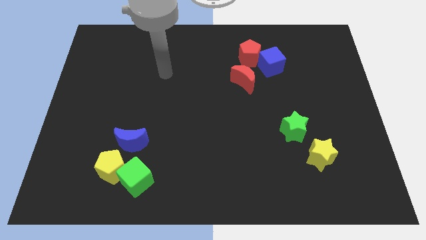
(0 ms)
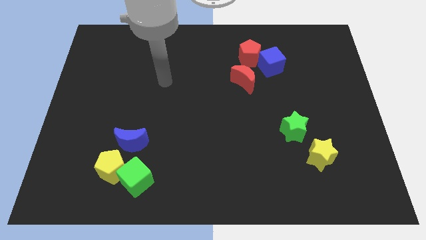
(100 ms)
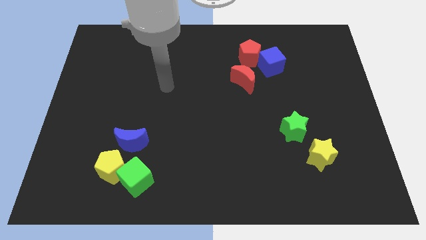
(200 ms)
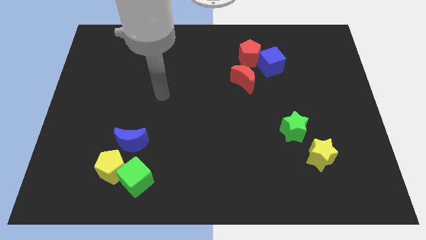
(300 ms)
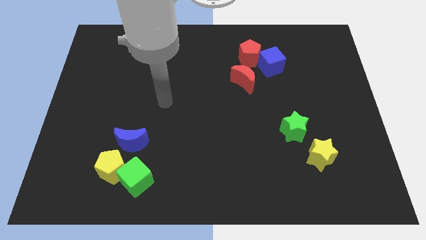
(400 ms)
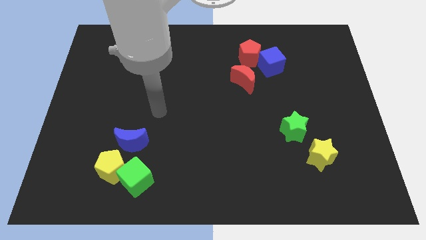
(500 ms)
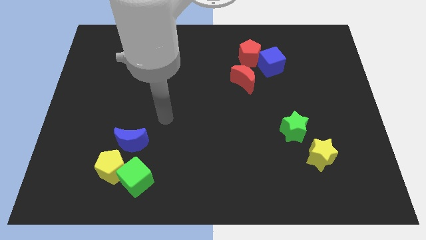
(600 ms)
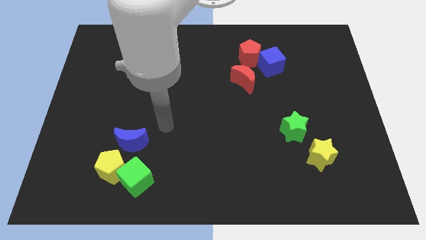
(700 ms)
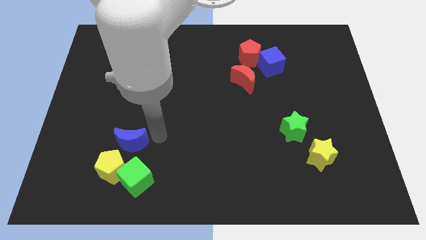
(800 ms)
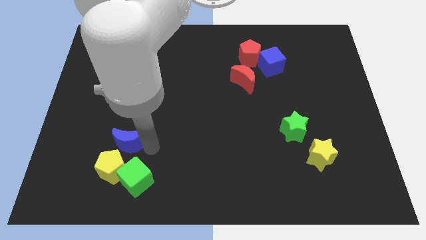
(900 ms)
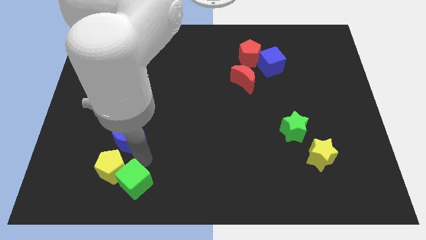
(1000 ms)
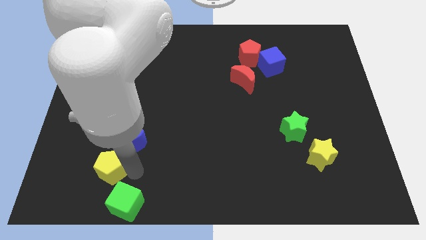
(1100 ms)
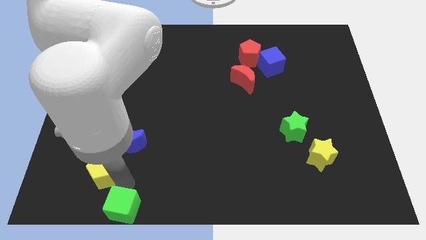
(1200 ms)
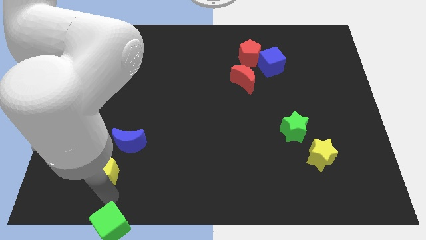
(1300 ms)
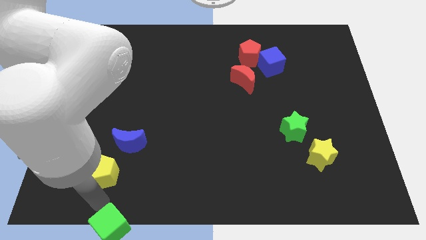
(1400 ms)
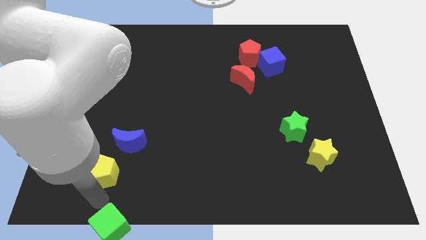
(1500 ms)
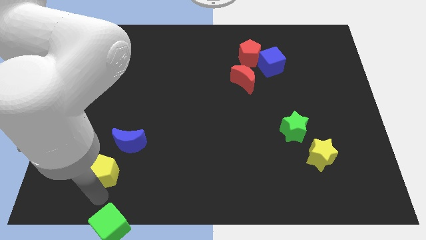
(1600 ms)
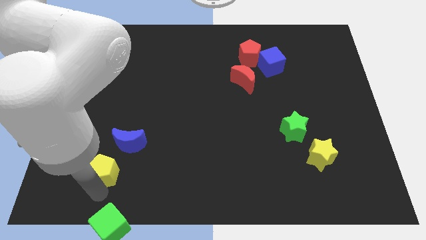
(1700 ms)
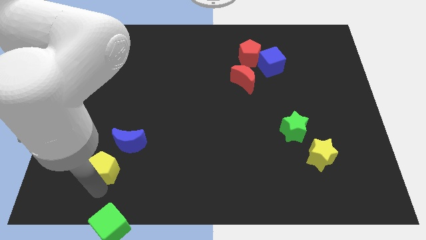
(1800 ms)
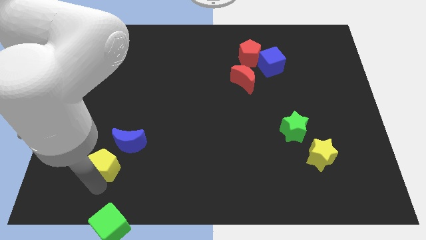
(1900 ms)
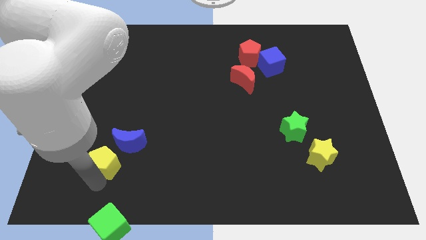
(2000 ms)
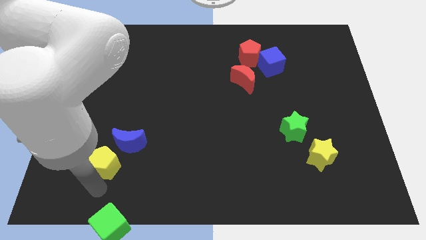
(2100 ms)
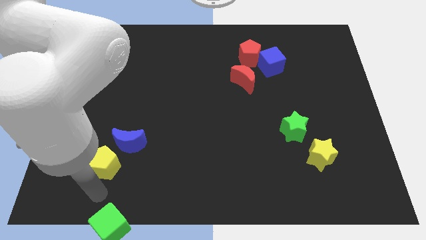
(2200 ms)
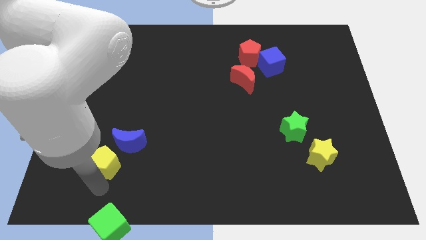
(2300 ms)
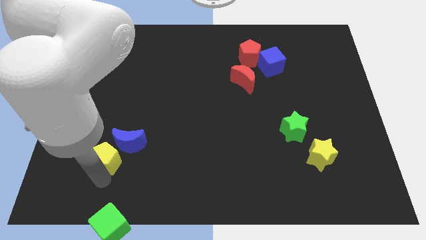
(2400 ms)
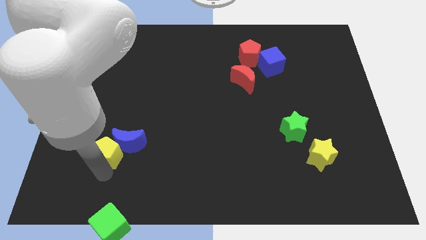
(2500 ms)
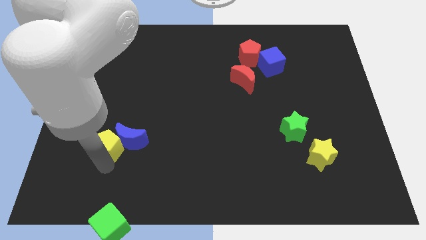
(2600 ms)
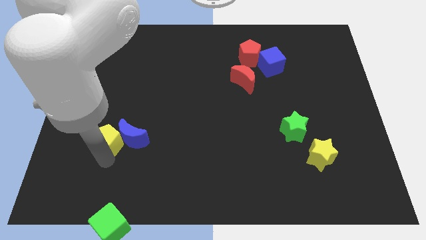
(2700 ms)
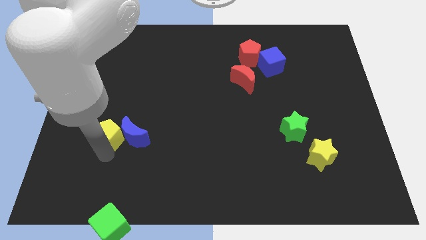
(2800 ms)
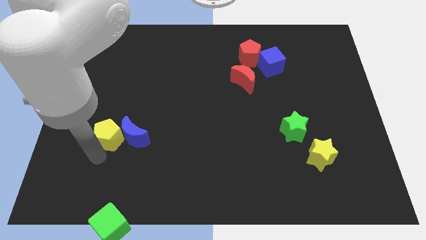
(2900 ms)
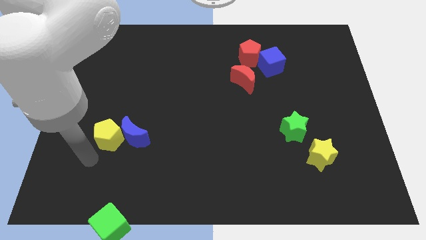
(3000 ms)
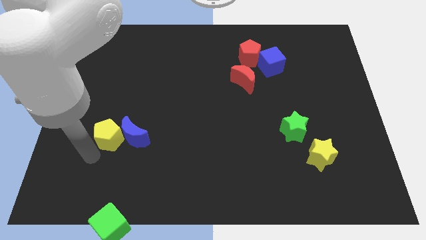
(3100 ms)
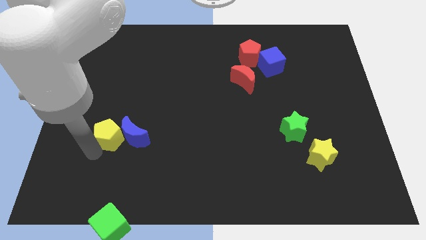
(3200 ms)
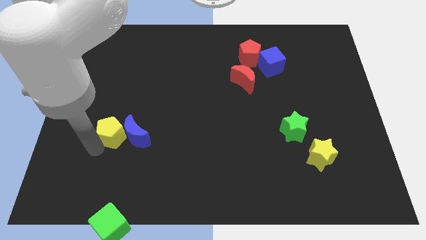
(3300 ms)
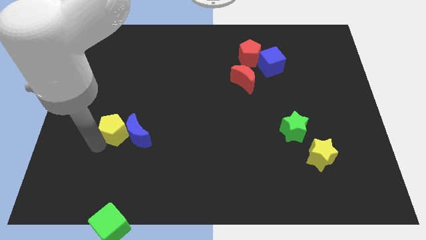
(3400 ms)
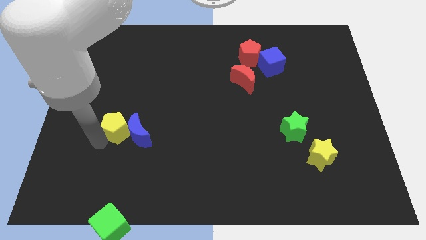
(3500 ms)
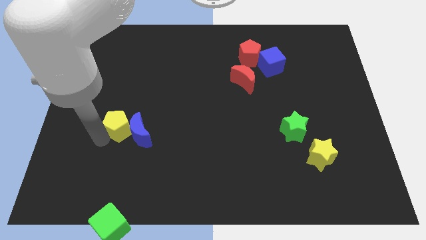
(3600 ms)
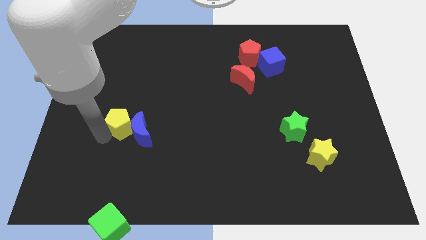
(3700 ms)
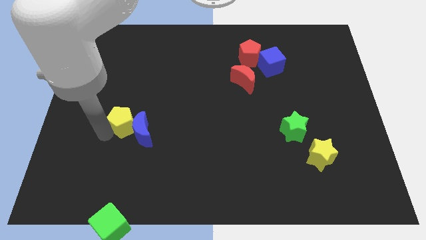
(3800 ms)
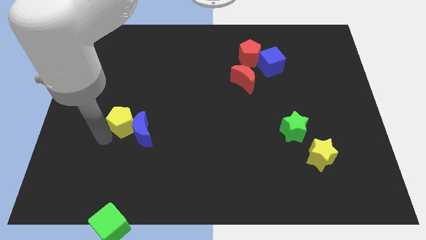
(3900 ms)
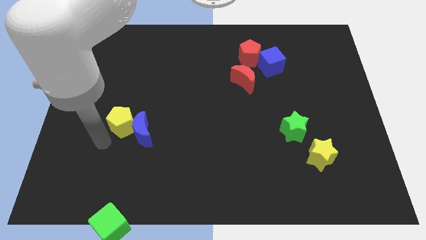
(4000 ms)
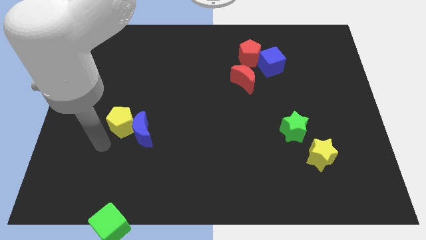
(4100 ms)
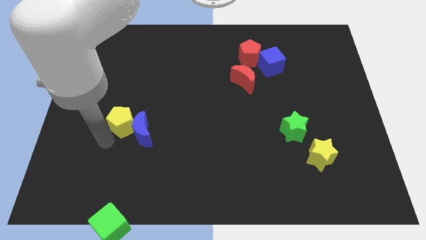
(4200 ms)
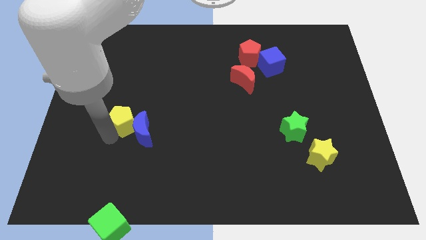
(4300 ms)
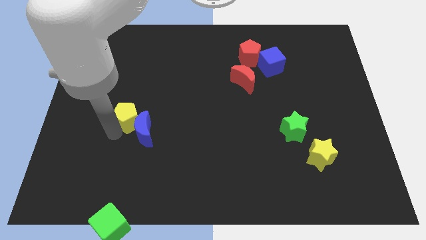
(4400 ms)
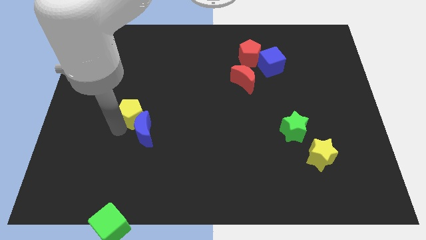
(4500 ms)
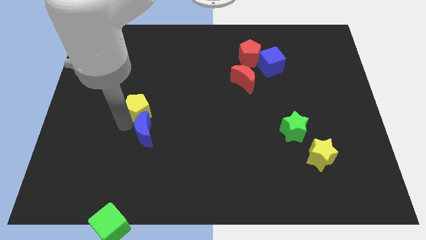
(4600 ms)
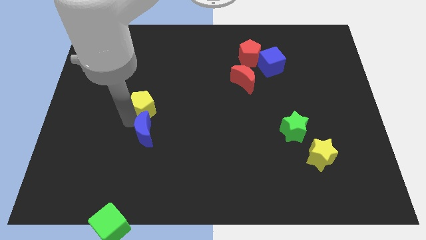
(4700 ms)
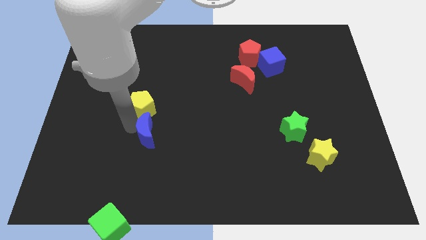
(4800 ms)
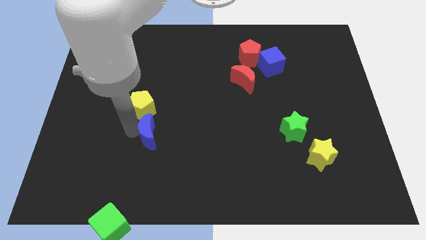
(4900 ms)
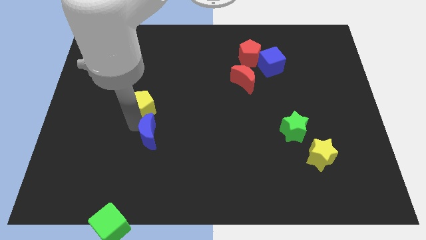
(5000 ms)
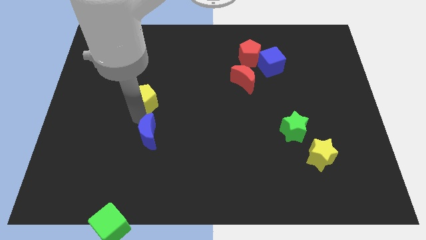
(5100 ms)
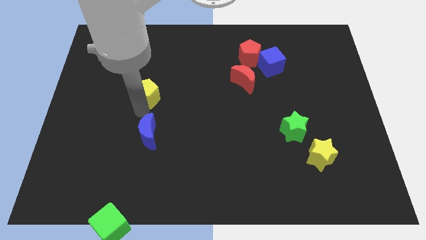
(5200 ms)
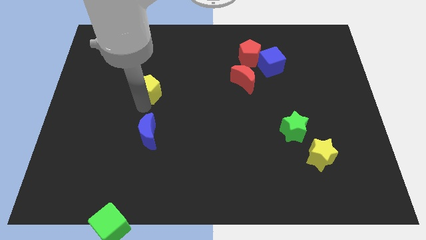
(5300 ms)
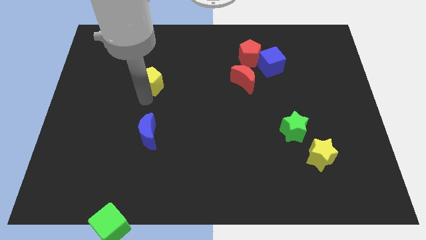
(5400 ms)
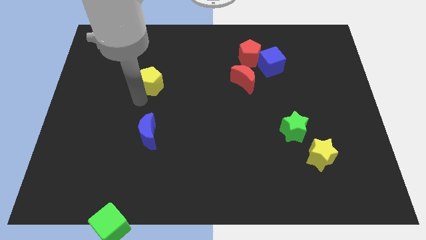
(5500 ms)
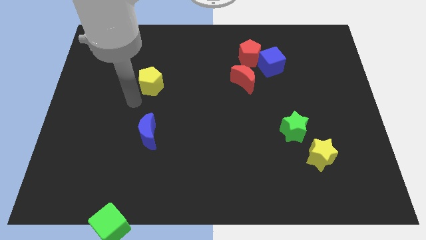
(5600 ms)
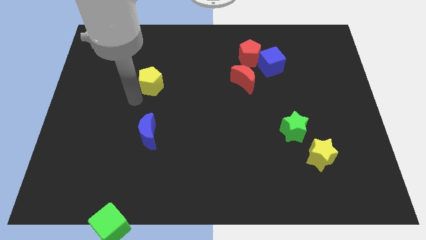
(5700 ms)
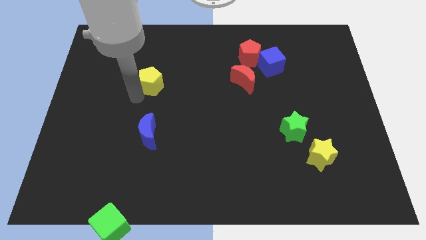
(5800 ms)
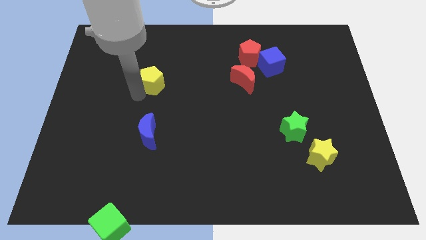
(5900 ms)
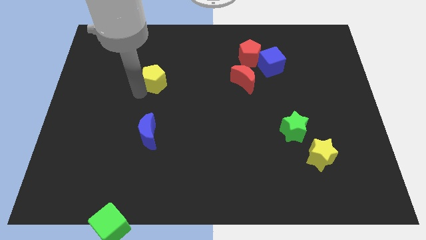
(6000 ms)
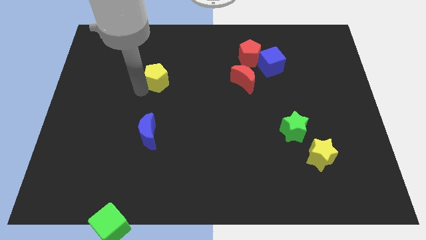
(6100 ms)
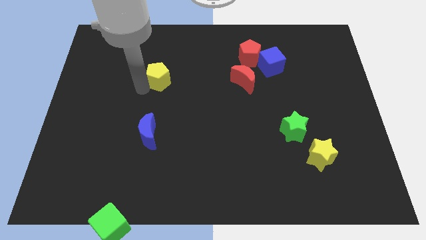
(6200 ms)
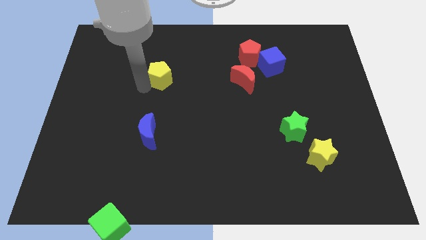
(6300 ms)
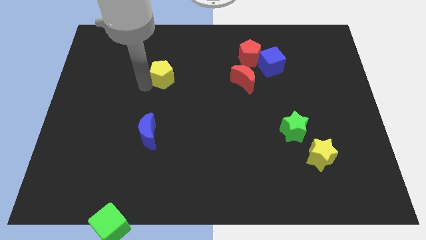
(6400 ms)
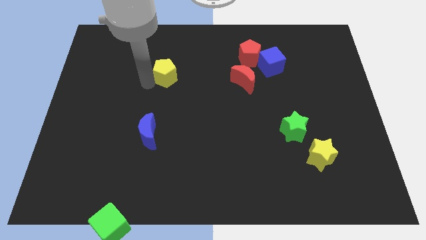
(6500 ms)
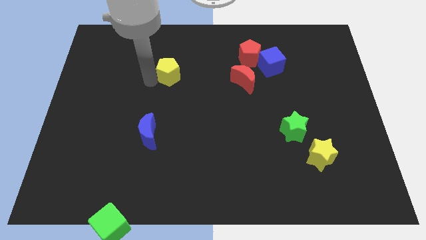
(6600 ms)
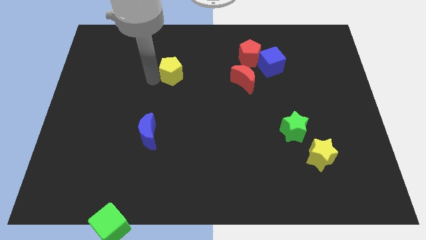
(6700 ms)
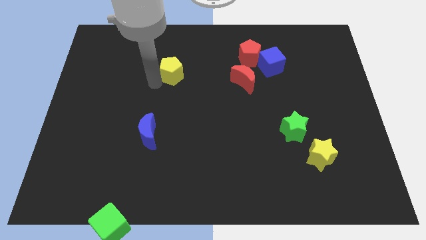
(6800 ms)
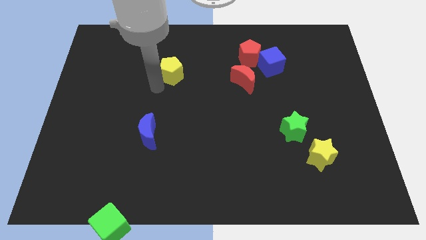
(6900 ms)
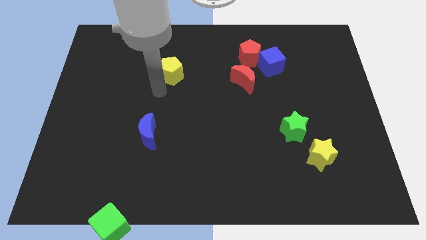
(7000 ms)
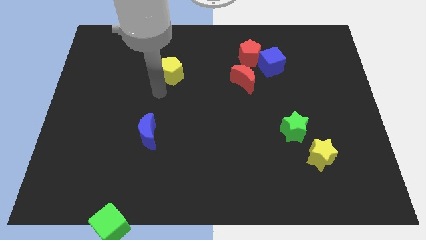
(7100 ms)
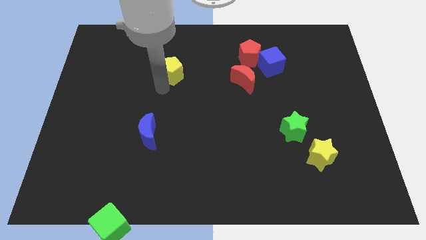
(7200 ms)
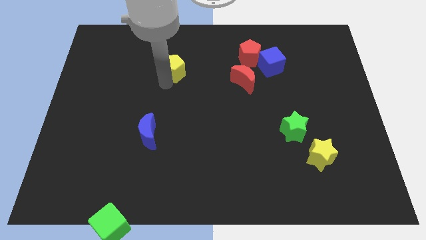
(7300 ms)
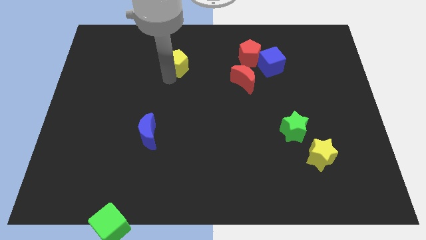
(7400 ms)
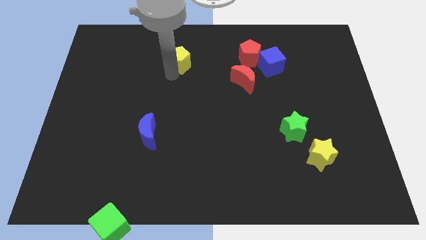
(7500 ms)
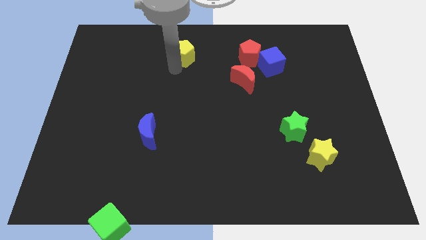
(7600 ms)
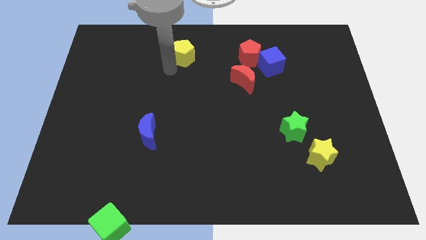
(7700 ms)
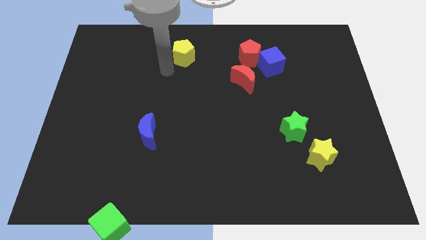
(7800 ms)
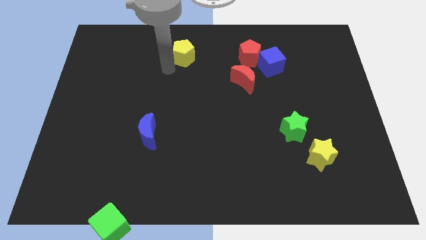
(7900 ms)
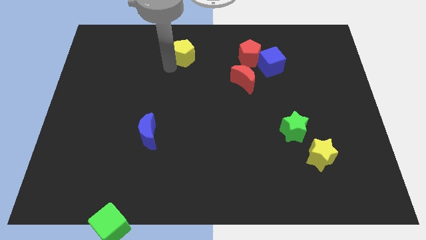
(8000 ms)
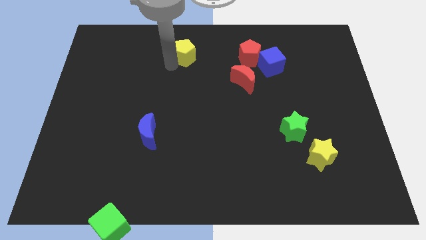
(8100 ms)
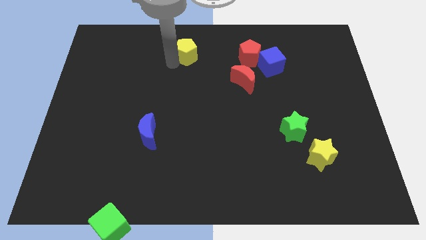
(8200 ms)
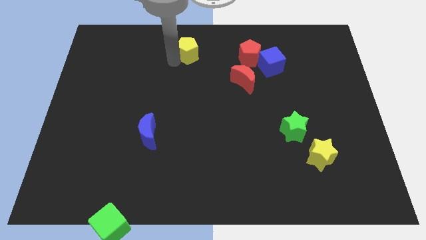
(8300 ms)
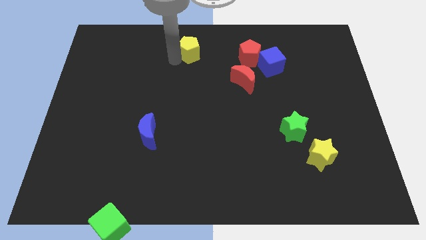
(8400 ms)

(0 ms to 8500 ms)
push the yellow pentagon to the top
